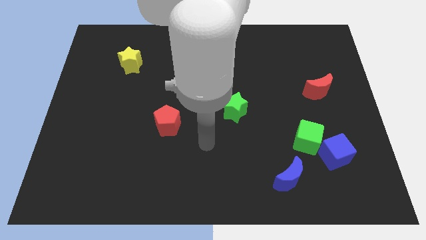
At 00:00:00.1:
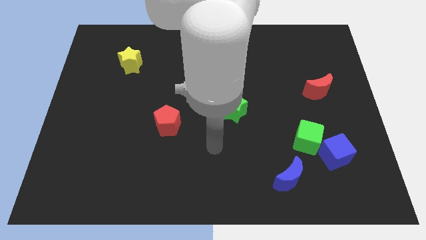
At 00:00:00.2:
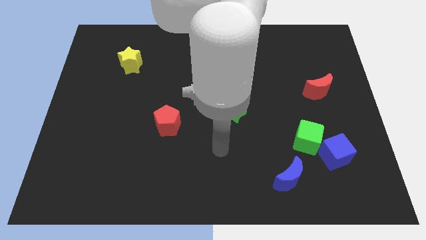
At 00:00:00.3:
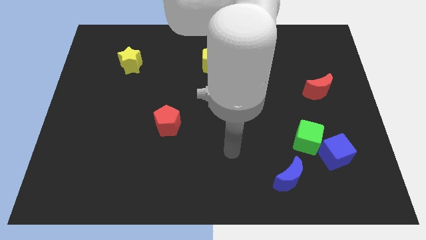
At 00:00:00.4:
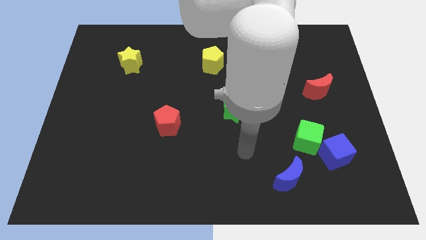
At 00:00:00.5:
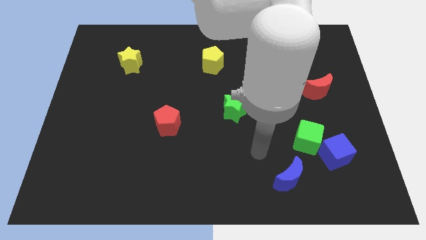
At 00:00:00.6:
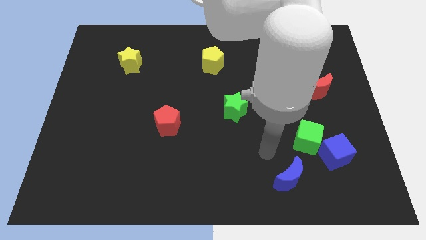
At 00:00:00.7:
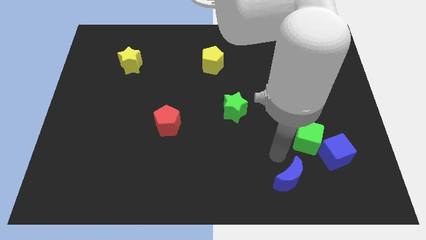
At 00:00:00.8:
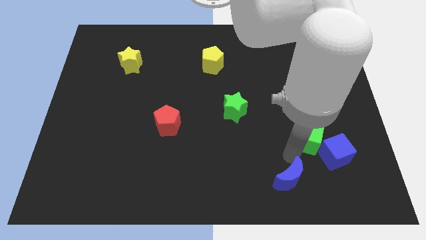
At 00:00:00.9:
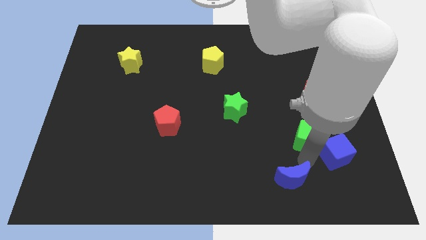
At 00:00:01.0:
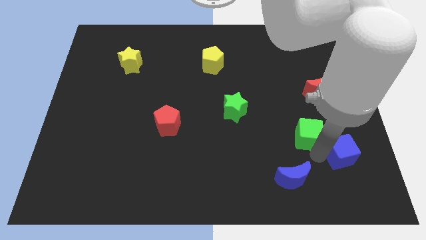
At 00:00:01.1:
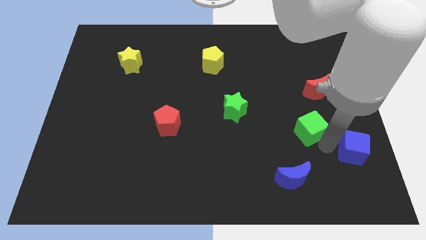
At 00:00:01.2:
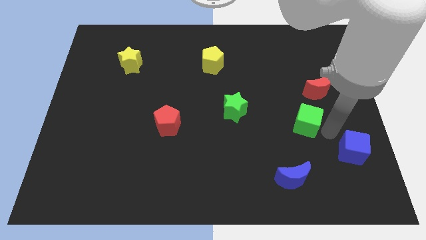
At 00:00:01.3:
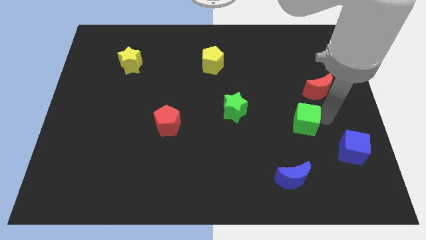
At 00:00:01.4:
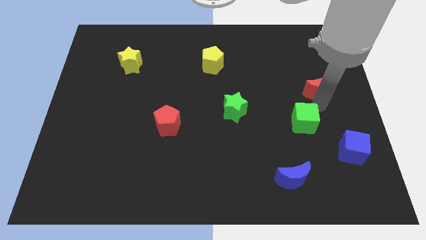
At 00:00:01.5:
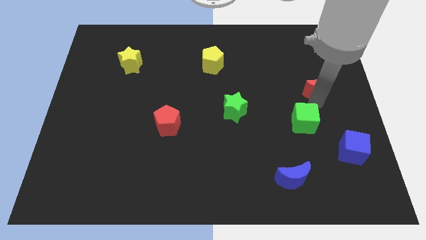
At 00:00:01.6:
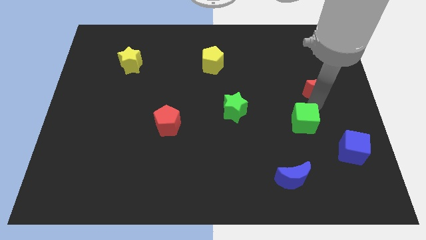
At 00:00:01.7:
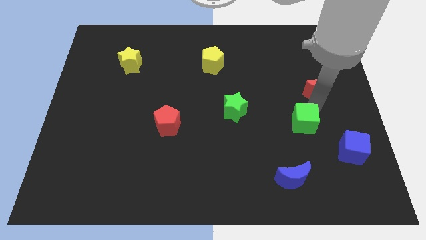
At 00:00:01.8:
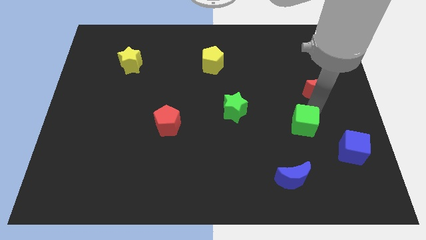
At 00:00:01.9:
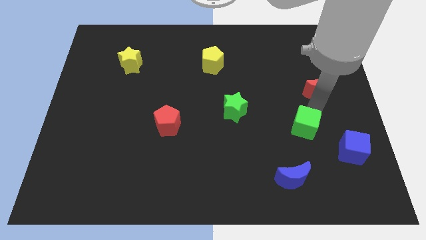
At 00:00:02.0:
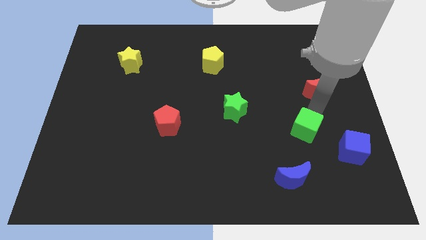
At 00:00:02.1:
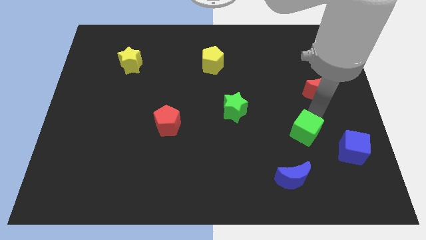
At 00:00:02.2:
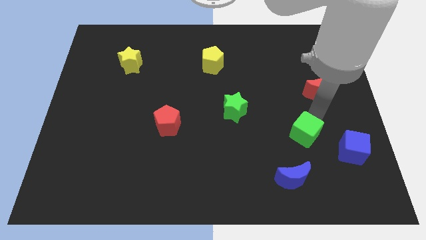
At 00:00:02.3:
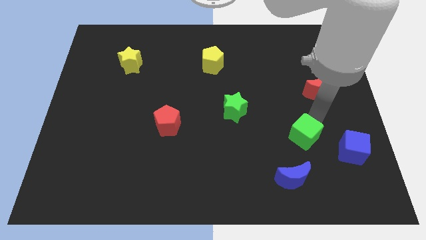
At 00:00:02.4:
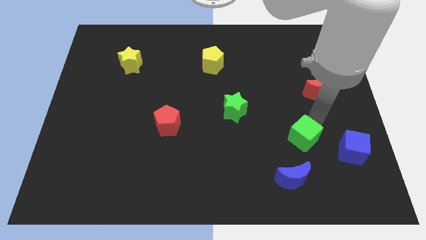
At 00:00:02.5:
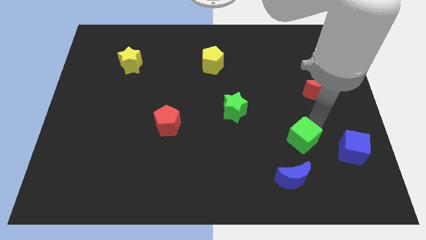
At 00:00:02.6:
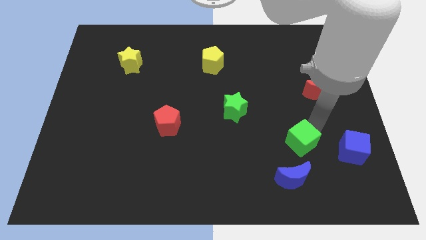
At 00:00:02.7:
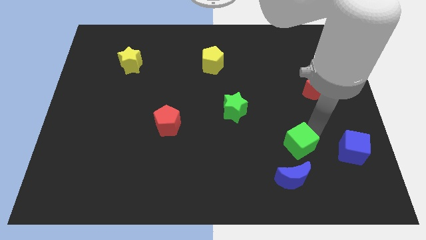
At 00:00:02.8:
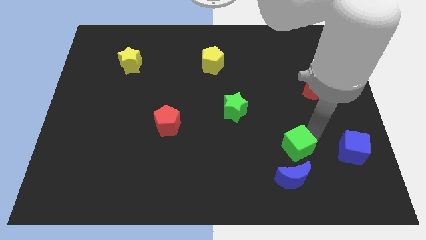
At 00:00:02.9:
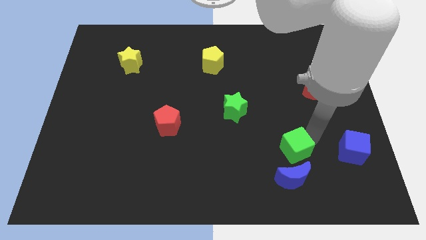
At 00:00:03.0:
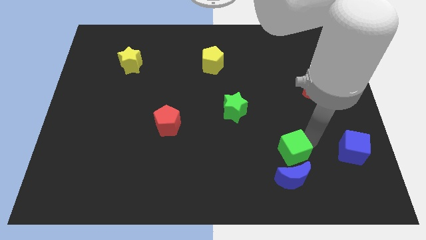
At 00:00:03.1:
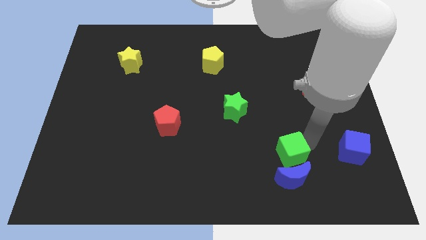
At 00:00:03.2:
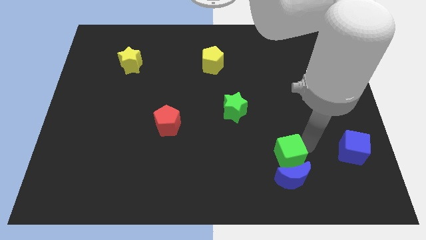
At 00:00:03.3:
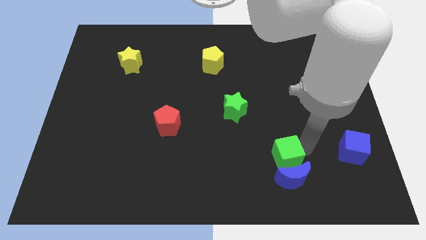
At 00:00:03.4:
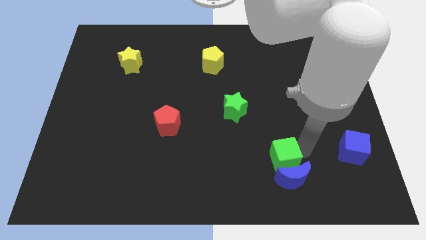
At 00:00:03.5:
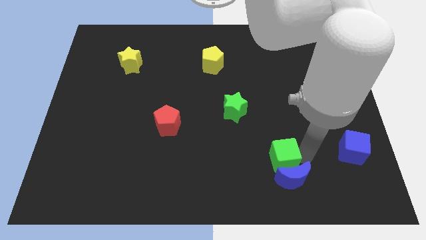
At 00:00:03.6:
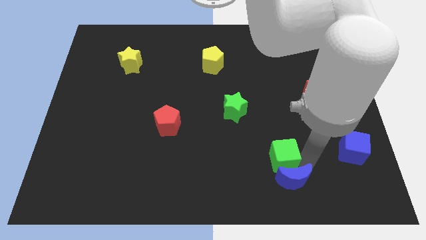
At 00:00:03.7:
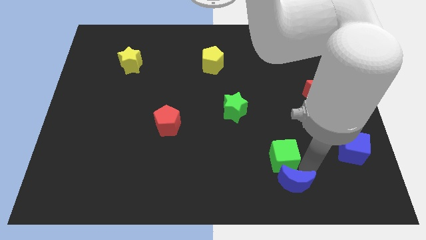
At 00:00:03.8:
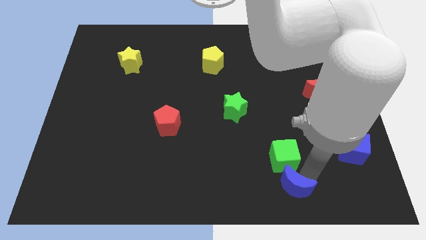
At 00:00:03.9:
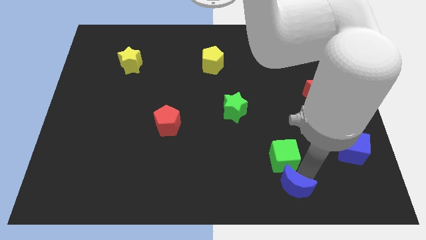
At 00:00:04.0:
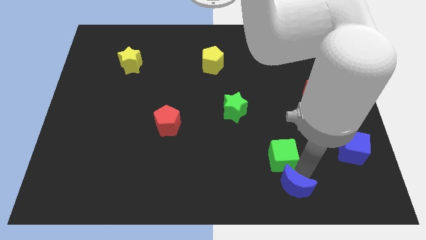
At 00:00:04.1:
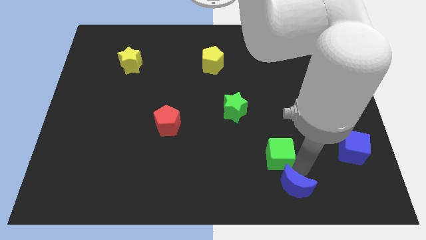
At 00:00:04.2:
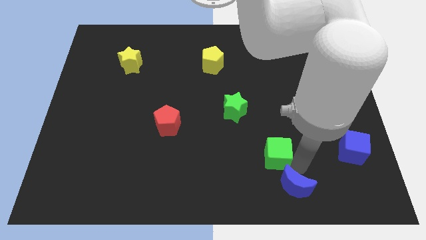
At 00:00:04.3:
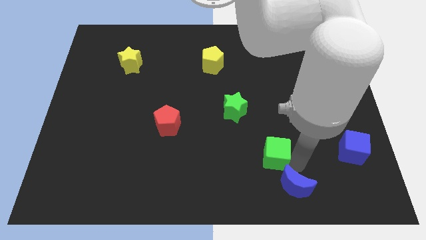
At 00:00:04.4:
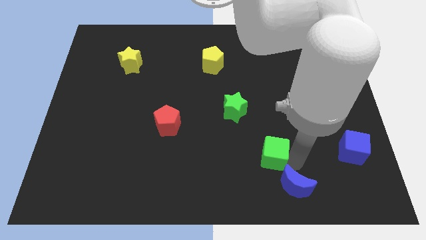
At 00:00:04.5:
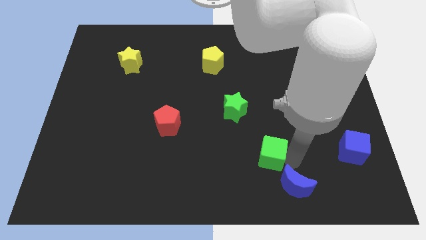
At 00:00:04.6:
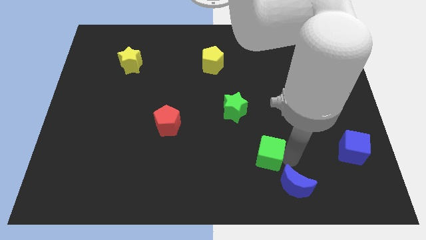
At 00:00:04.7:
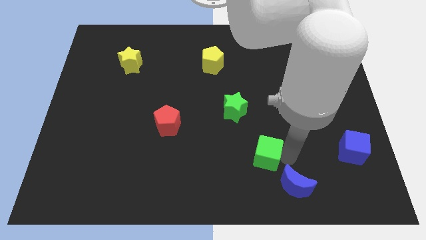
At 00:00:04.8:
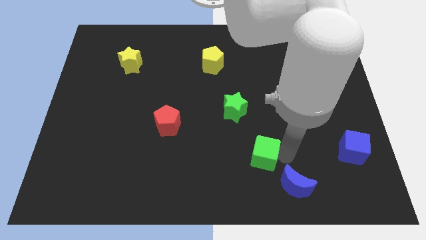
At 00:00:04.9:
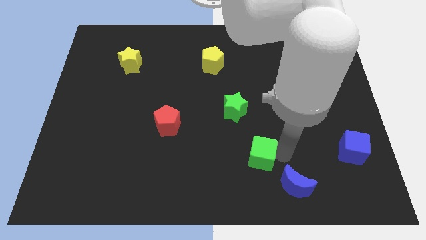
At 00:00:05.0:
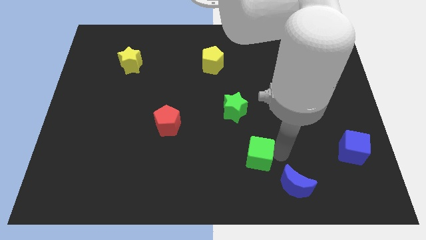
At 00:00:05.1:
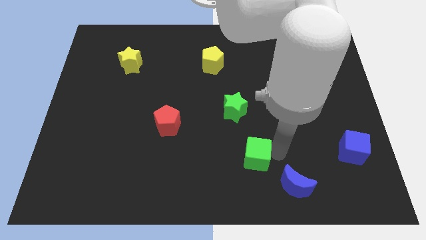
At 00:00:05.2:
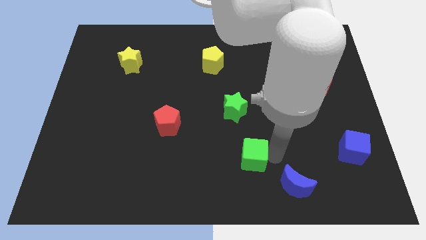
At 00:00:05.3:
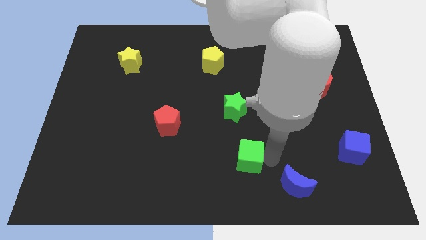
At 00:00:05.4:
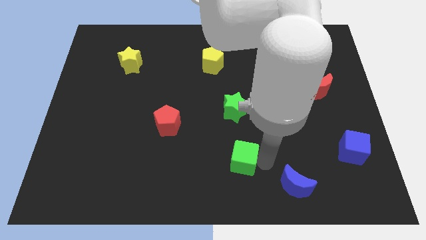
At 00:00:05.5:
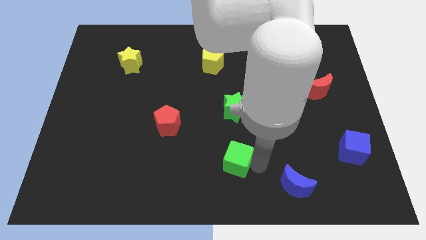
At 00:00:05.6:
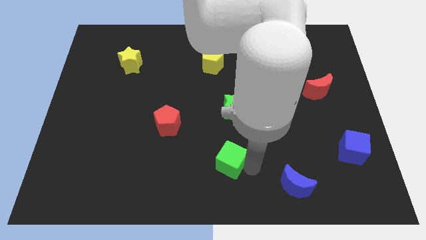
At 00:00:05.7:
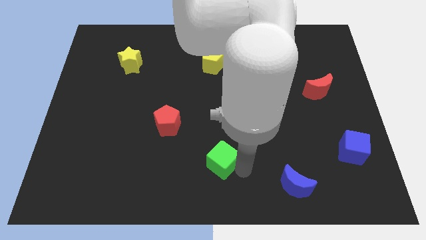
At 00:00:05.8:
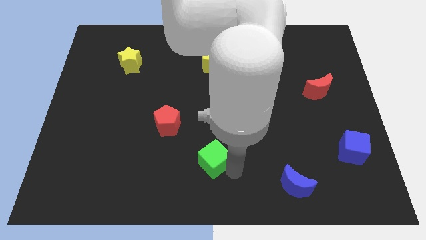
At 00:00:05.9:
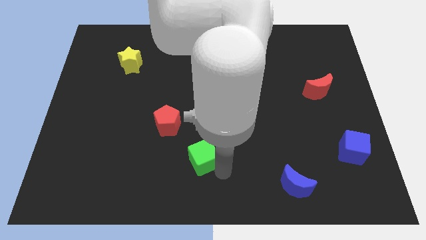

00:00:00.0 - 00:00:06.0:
push the green cube to the left

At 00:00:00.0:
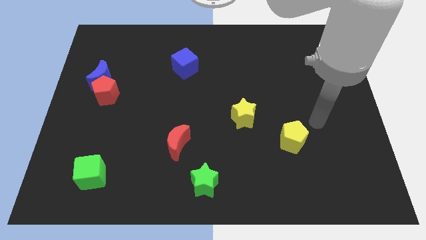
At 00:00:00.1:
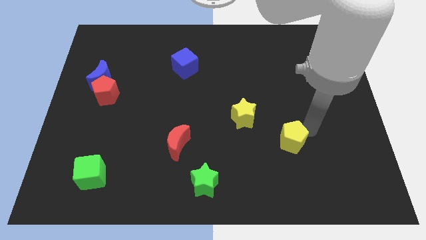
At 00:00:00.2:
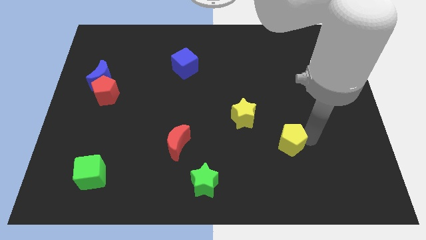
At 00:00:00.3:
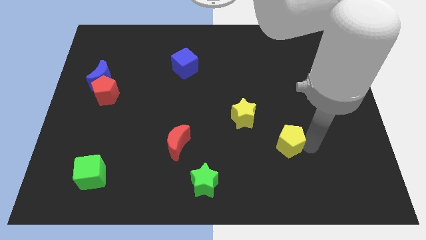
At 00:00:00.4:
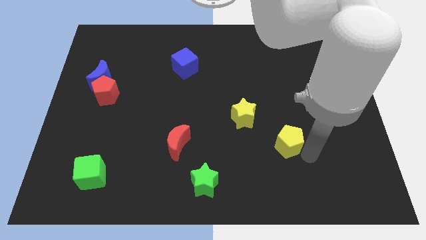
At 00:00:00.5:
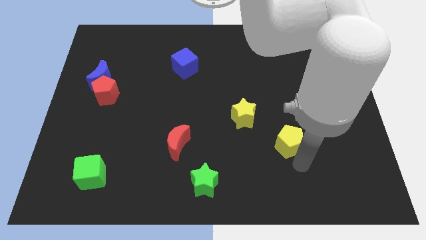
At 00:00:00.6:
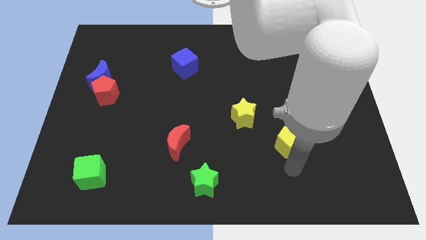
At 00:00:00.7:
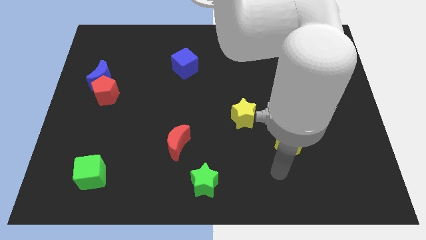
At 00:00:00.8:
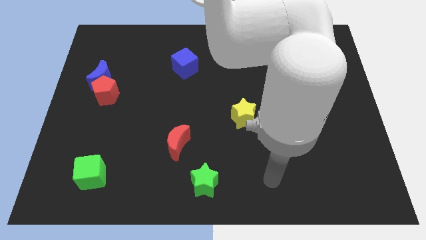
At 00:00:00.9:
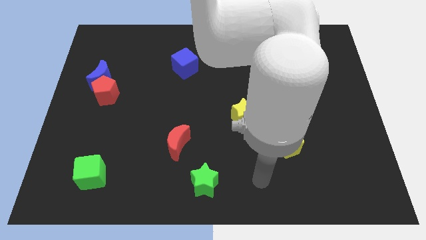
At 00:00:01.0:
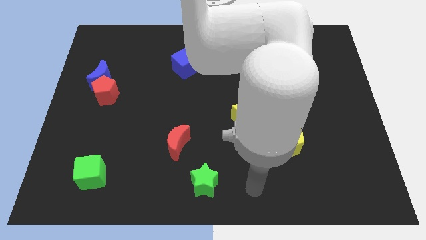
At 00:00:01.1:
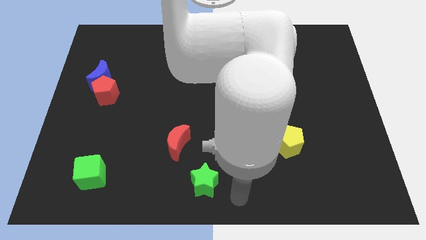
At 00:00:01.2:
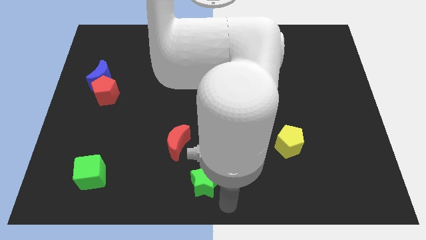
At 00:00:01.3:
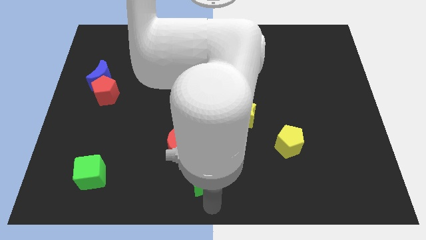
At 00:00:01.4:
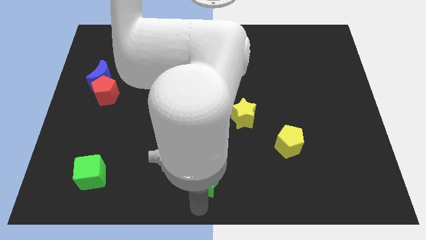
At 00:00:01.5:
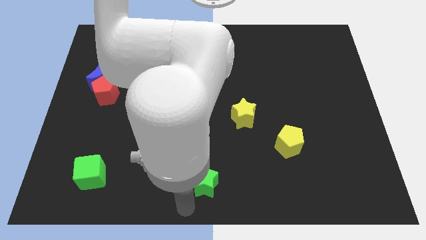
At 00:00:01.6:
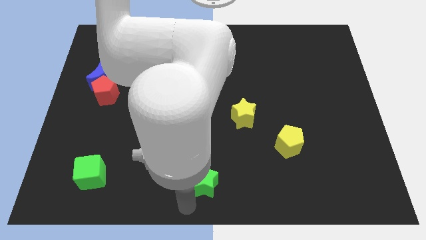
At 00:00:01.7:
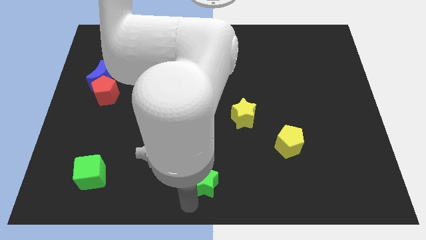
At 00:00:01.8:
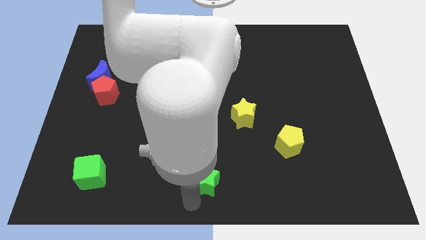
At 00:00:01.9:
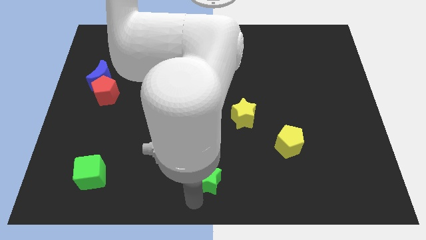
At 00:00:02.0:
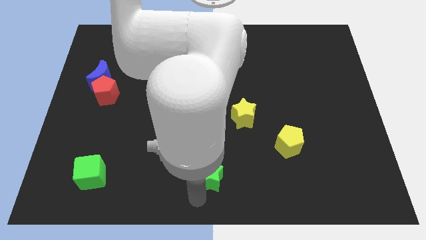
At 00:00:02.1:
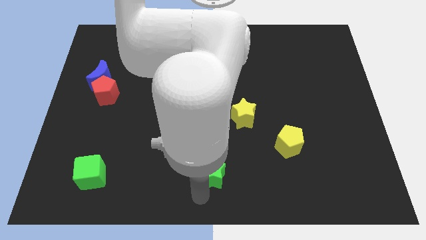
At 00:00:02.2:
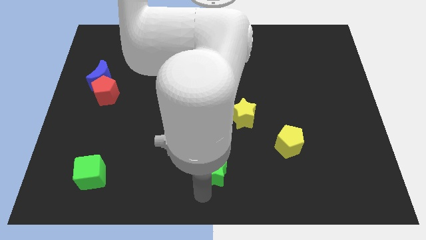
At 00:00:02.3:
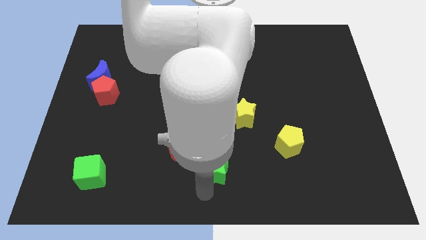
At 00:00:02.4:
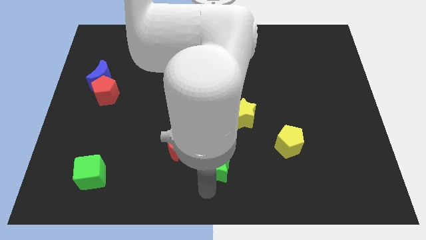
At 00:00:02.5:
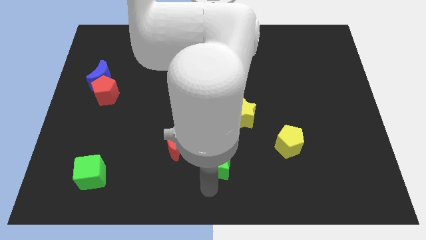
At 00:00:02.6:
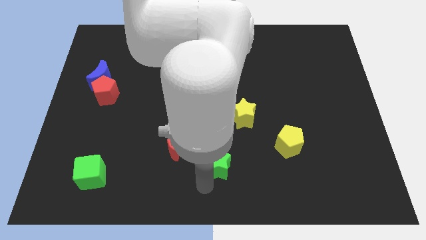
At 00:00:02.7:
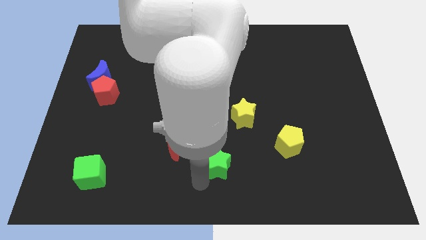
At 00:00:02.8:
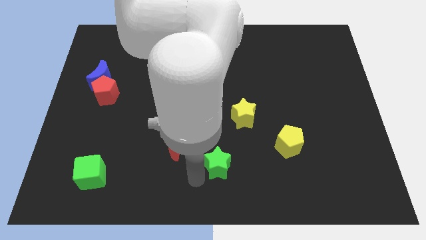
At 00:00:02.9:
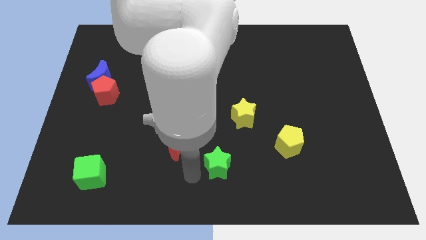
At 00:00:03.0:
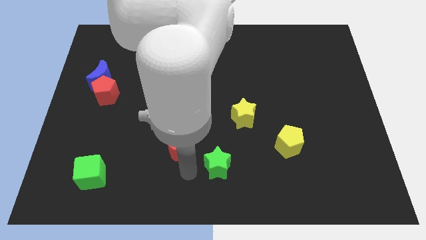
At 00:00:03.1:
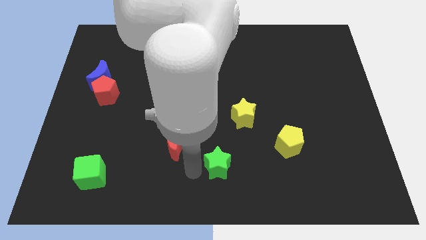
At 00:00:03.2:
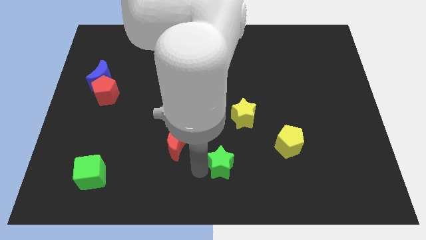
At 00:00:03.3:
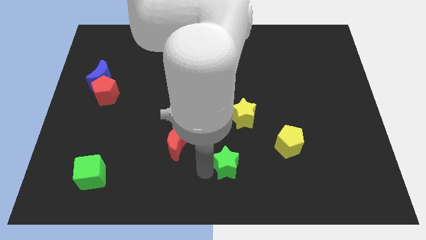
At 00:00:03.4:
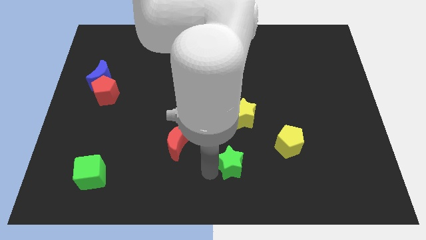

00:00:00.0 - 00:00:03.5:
push the green star upwards and to the right diagonally slightly
